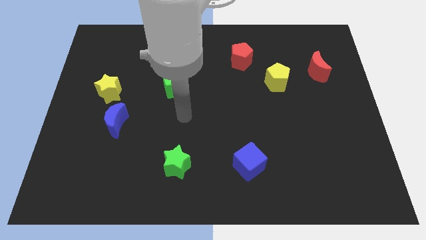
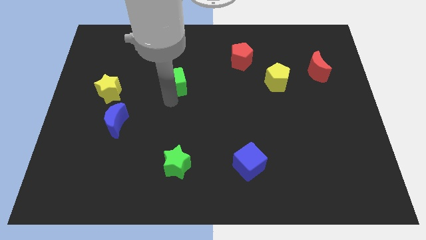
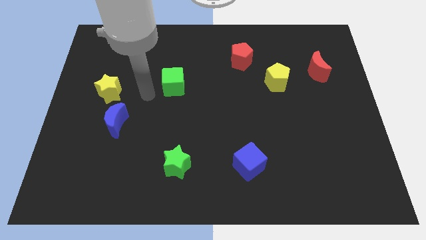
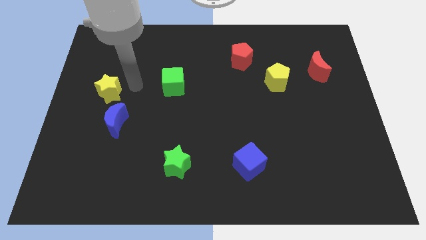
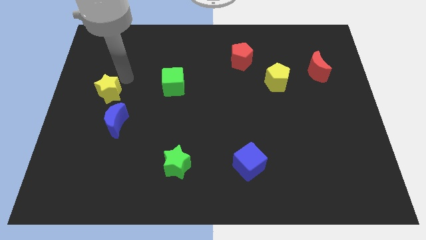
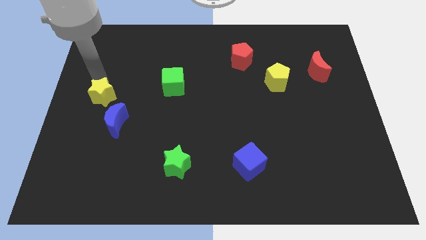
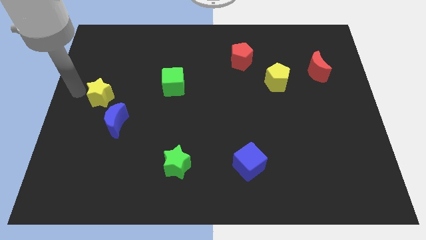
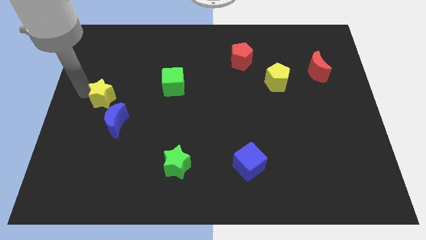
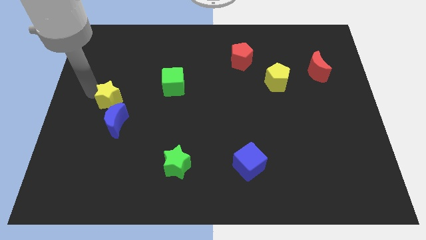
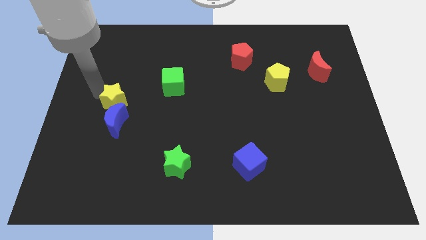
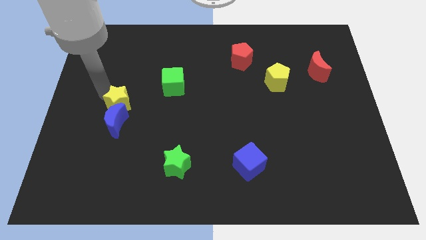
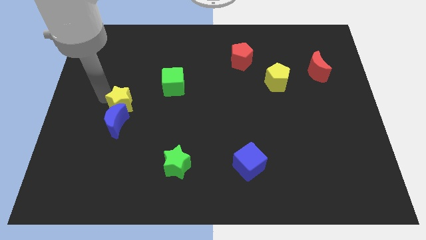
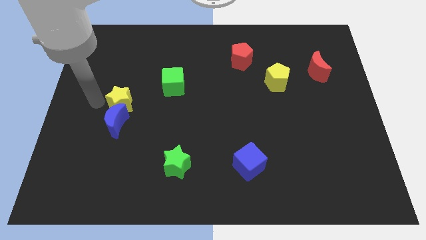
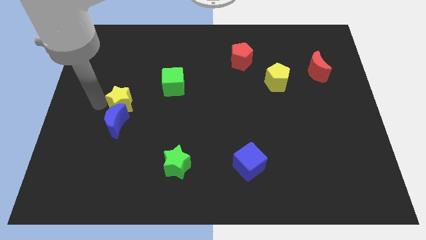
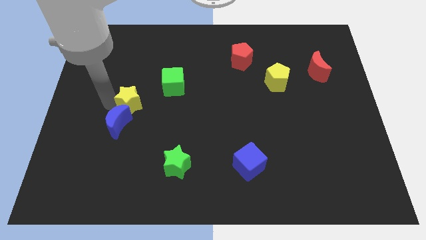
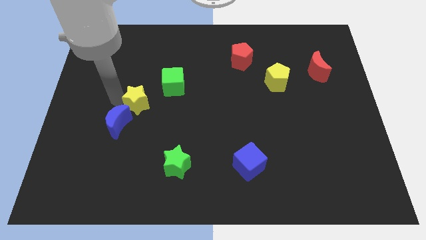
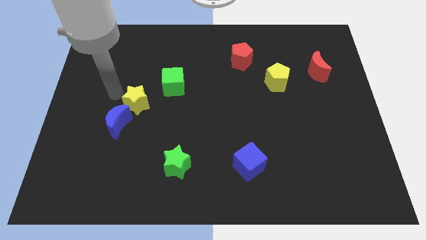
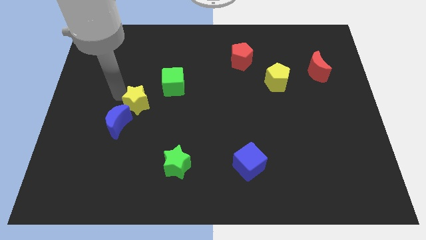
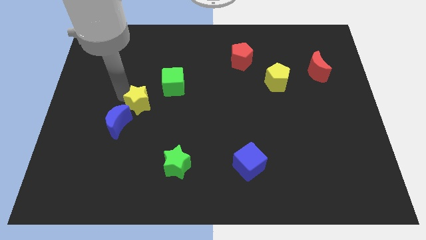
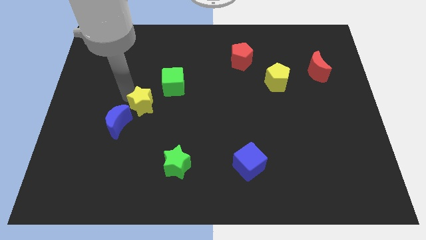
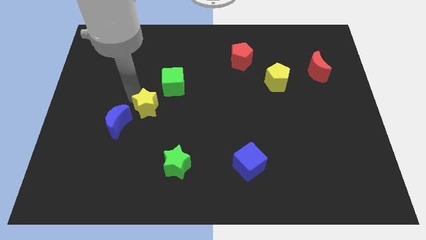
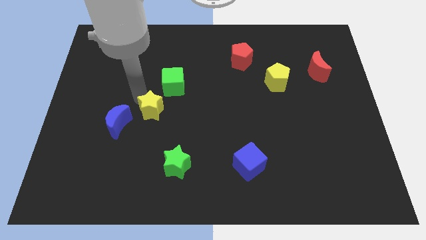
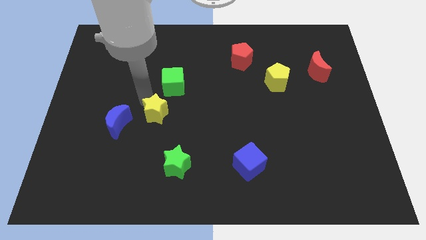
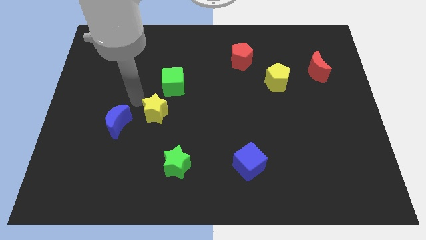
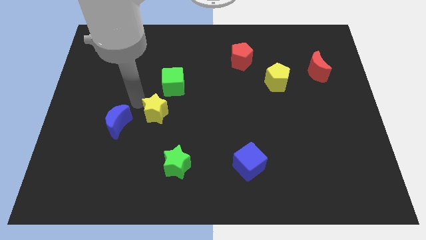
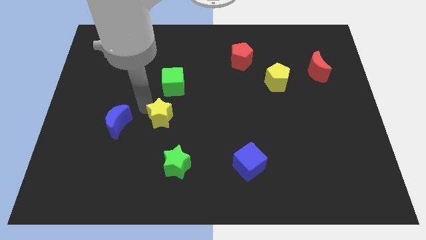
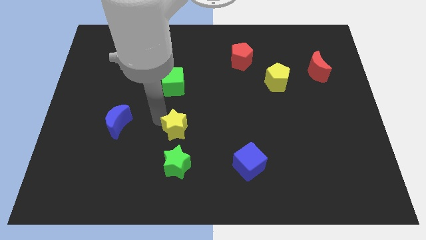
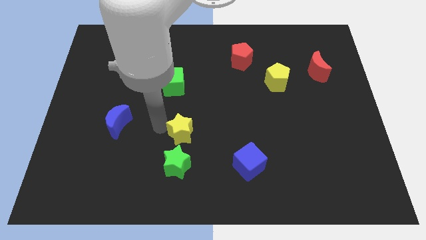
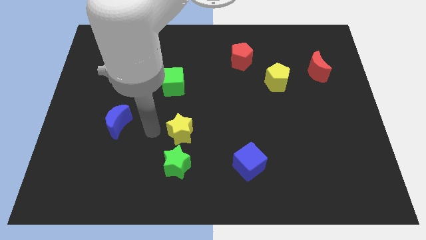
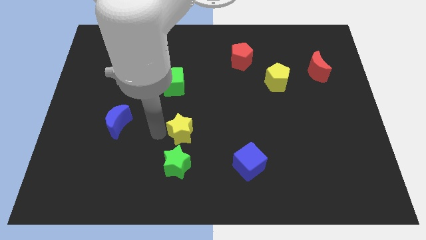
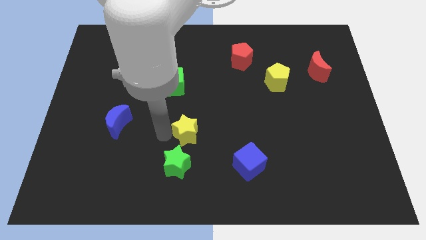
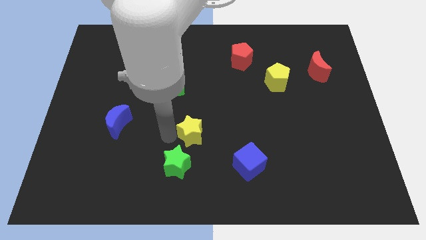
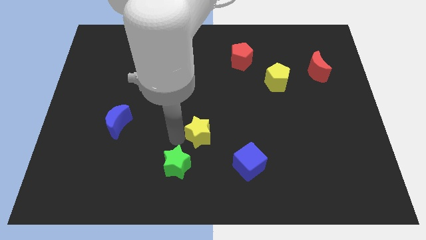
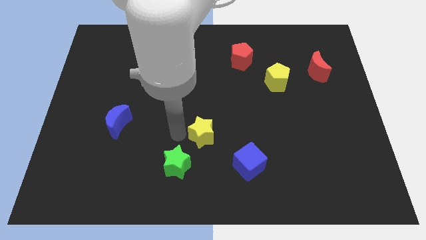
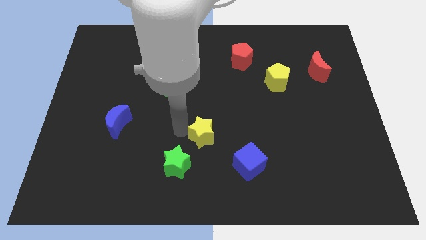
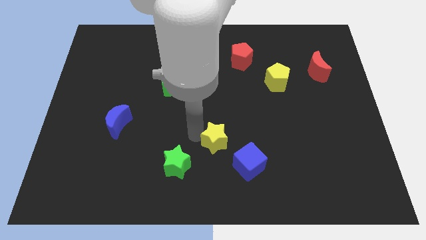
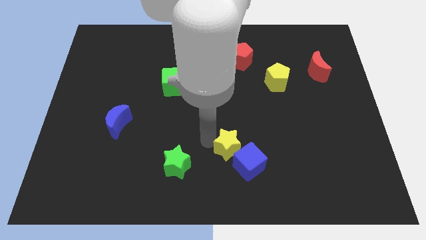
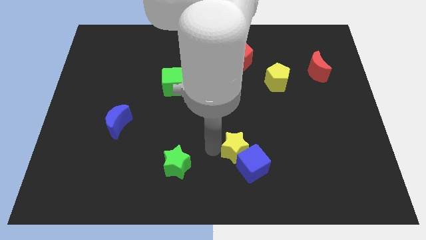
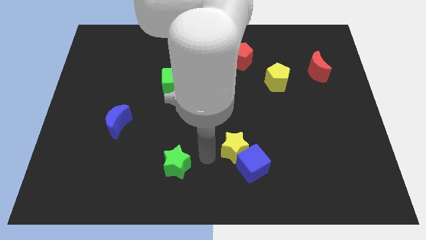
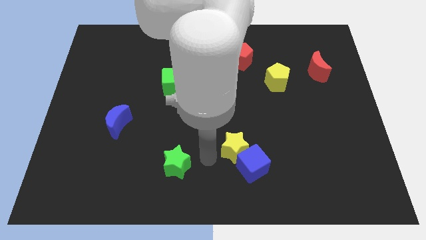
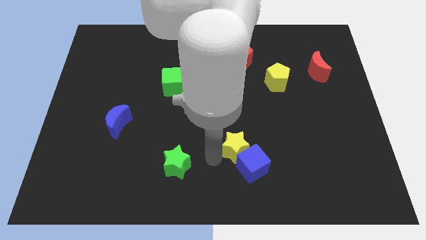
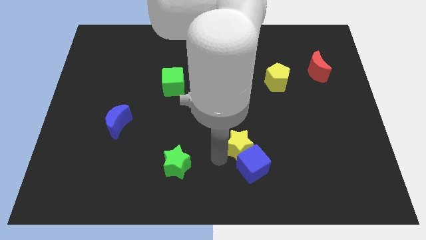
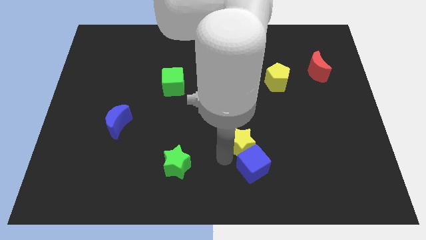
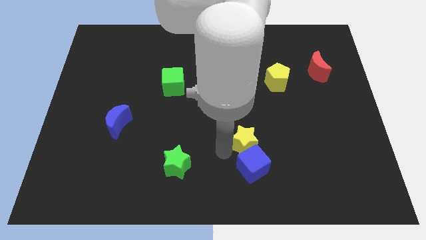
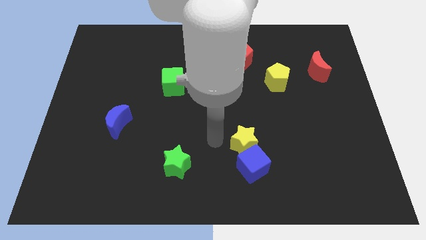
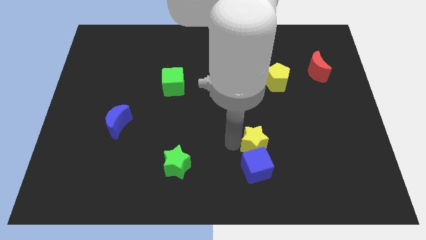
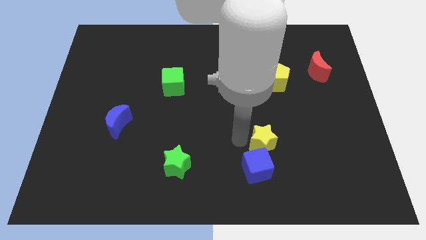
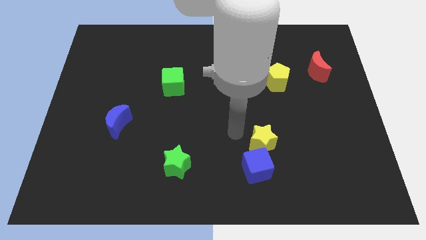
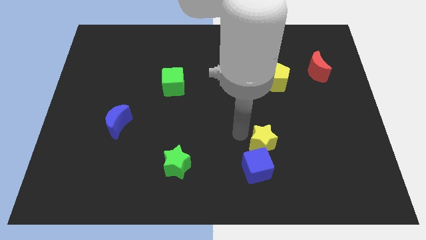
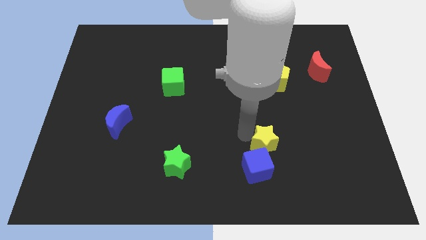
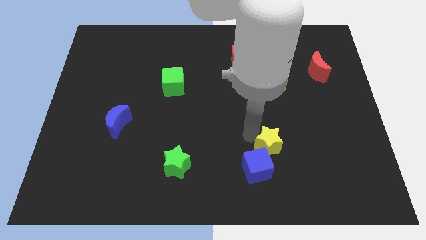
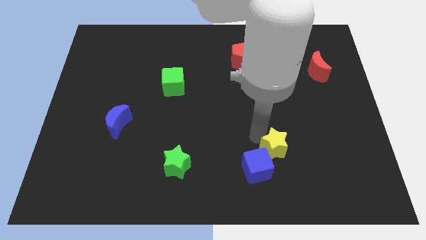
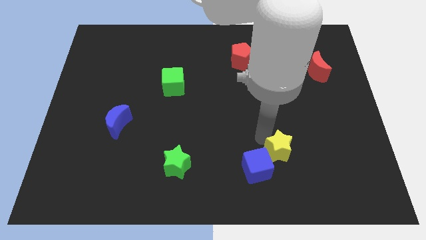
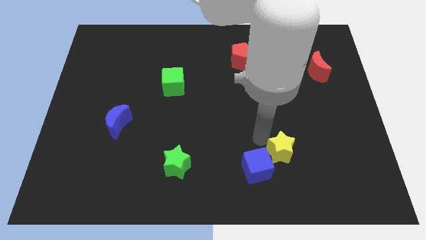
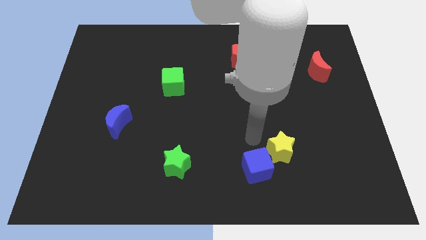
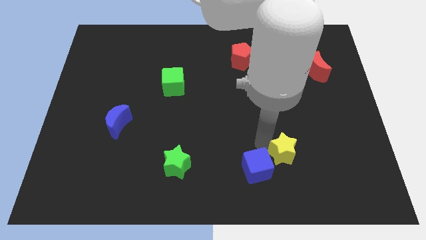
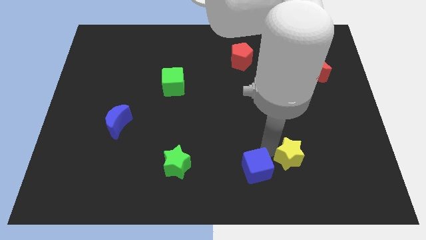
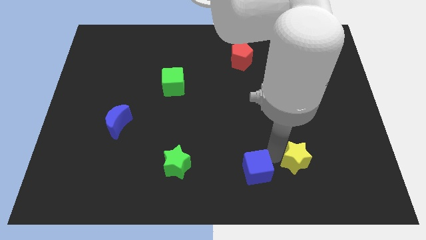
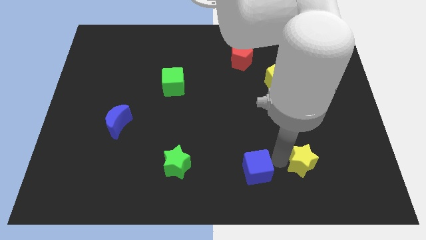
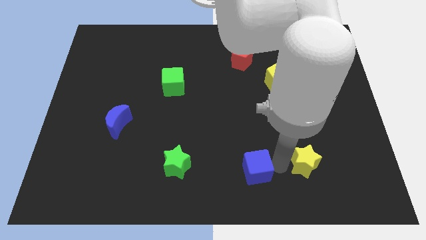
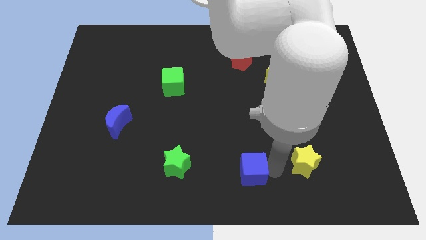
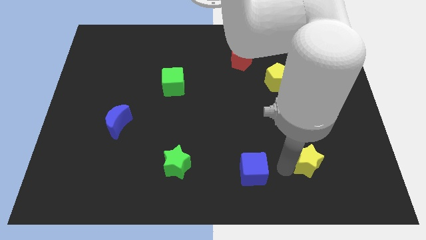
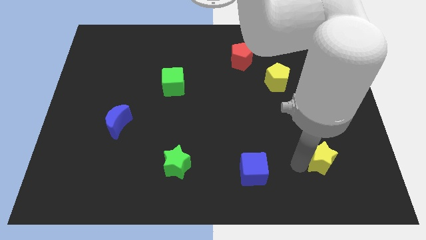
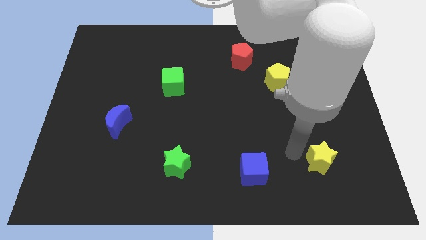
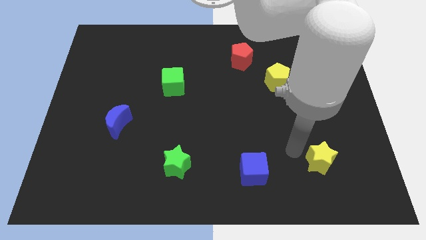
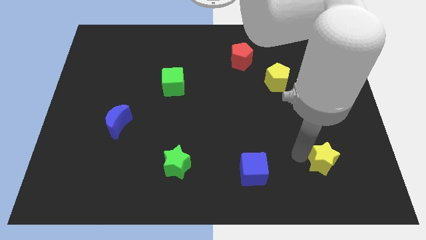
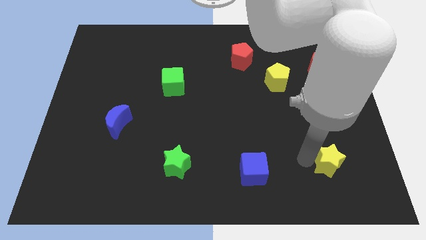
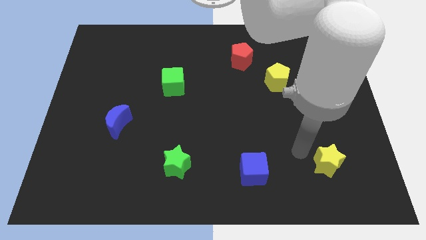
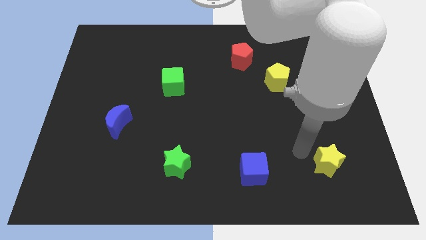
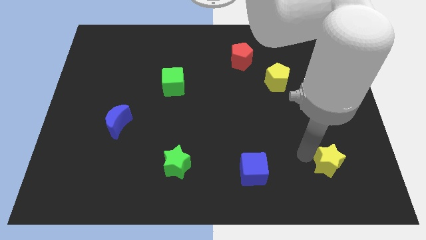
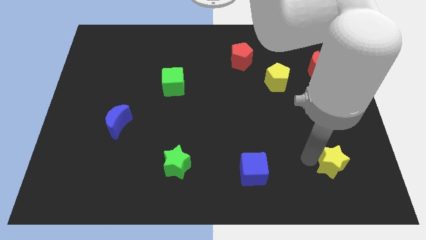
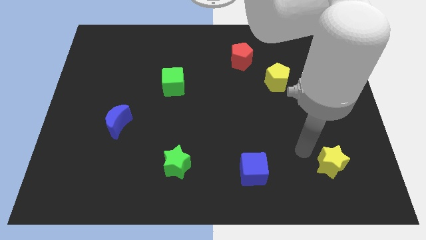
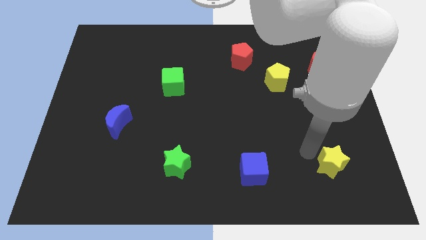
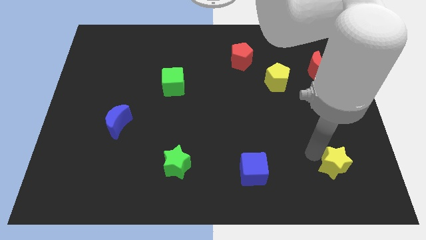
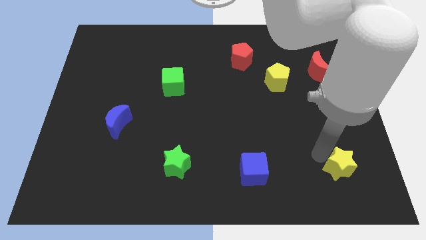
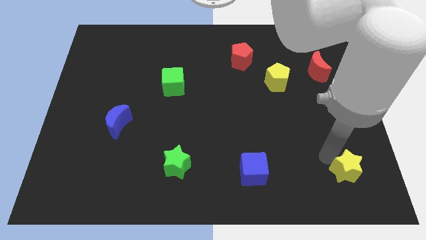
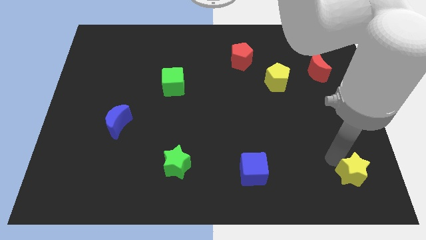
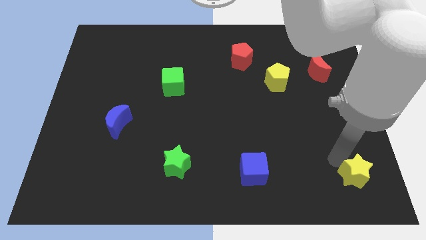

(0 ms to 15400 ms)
put the yellow star to the bottom right corner

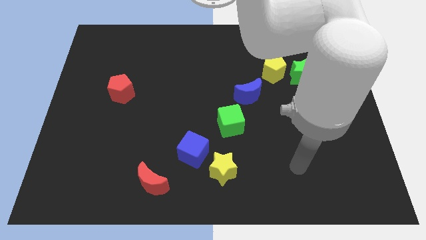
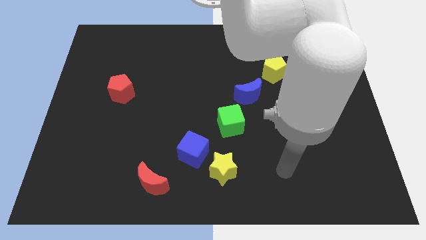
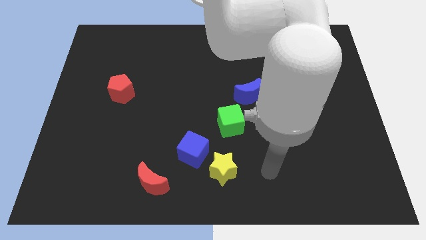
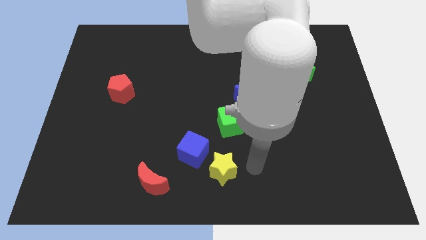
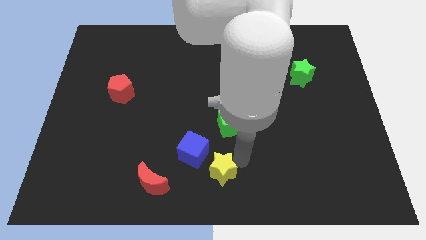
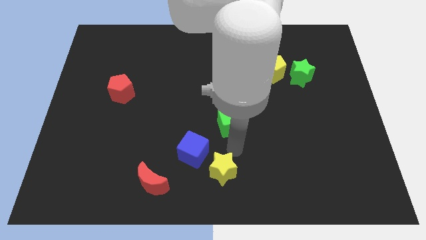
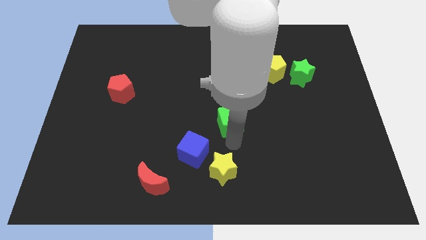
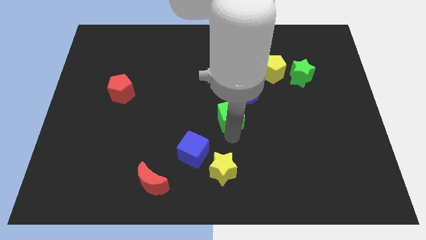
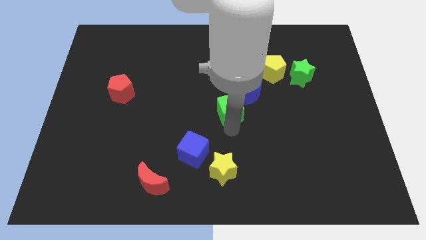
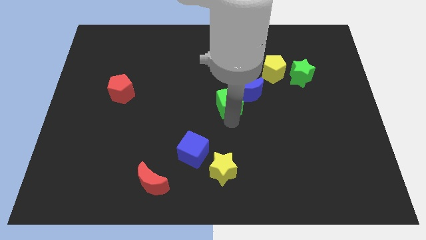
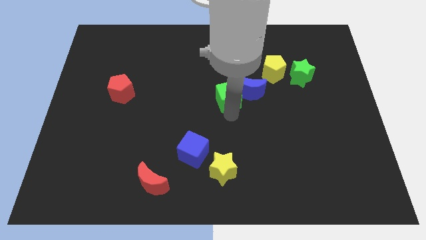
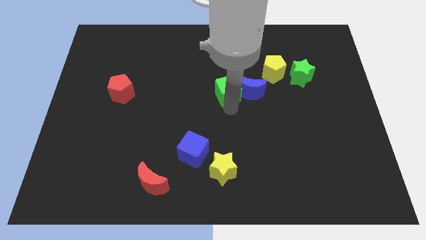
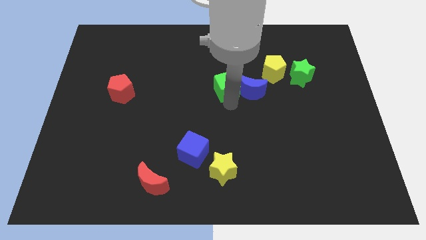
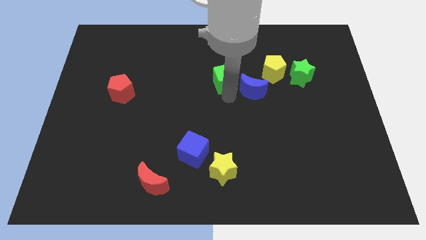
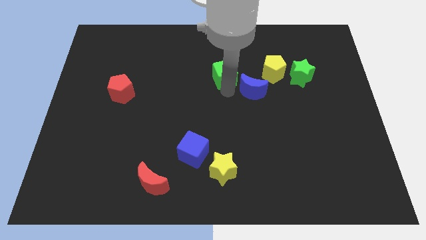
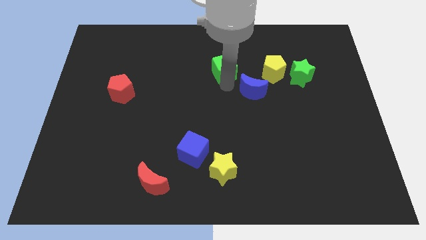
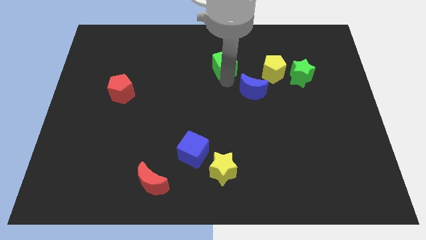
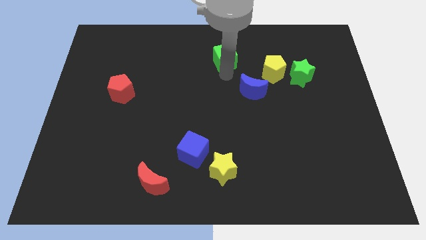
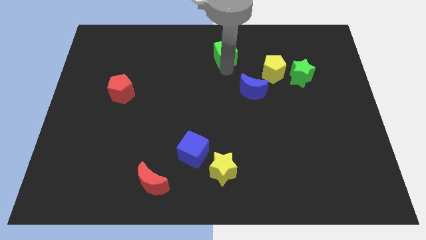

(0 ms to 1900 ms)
move the green cube to the top
